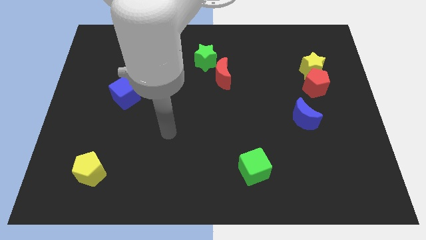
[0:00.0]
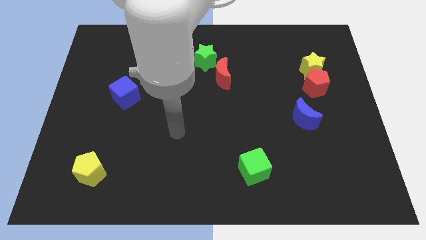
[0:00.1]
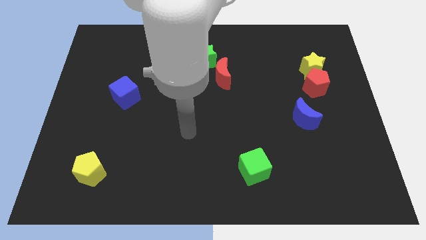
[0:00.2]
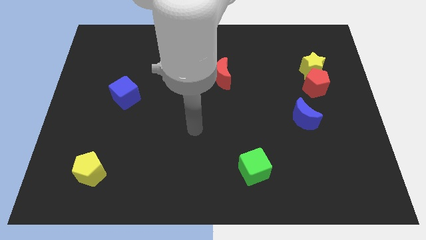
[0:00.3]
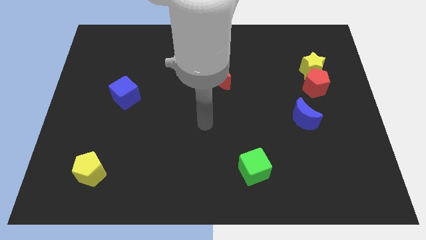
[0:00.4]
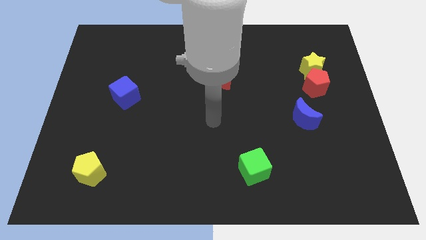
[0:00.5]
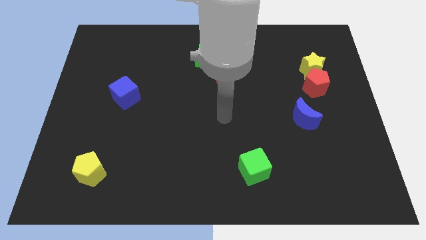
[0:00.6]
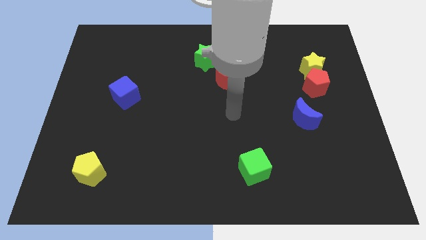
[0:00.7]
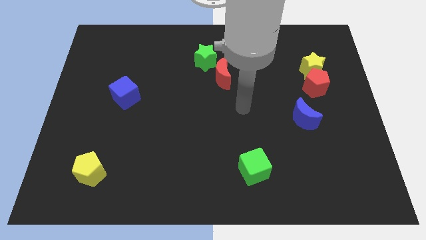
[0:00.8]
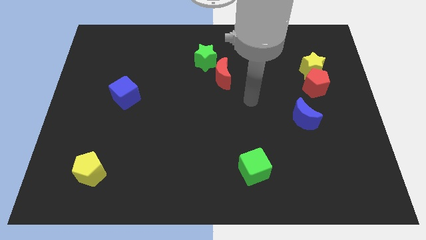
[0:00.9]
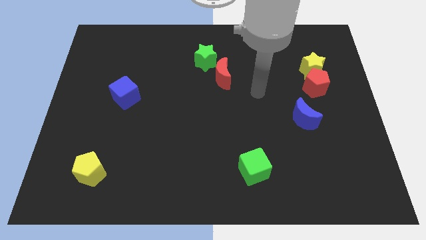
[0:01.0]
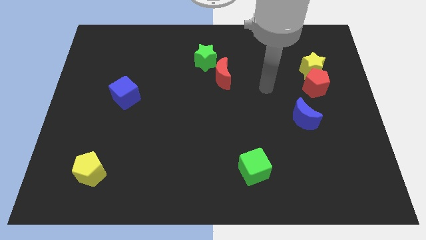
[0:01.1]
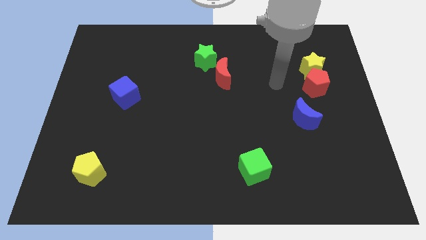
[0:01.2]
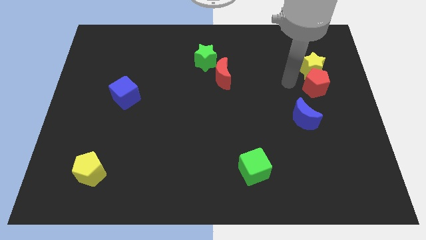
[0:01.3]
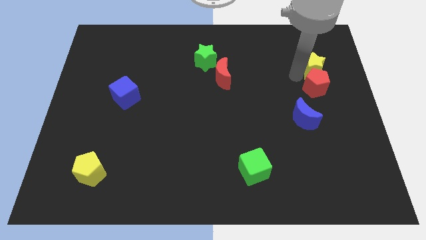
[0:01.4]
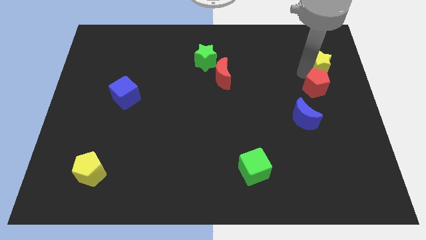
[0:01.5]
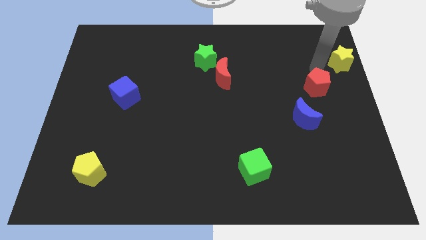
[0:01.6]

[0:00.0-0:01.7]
separate the red pentagon from the yellow star

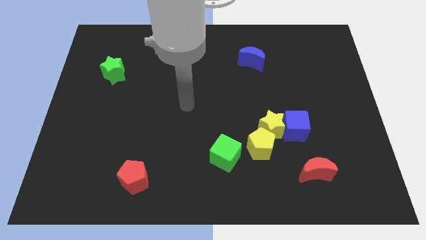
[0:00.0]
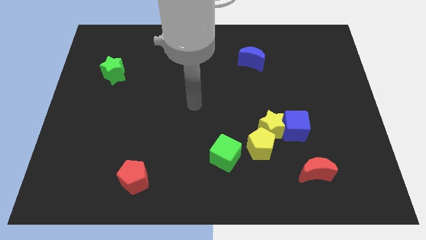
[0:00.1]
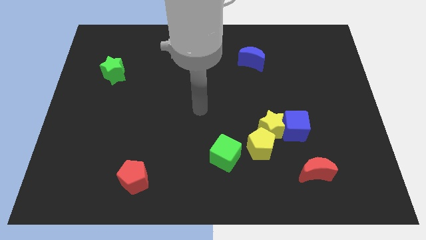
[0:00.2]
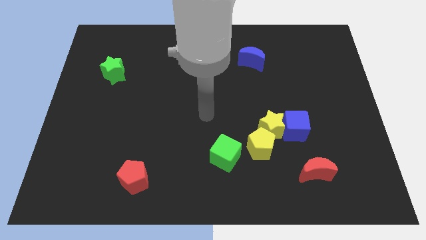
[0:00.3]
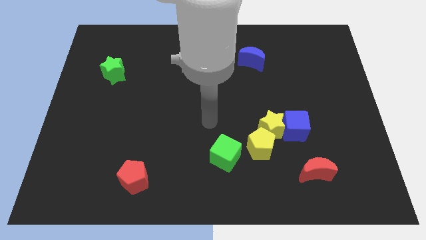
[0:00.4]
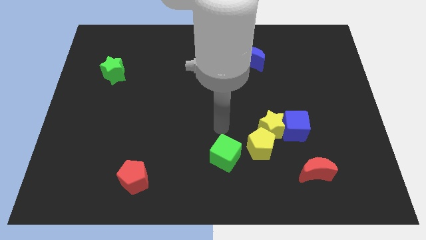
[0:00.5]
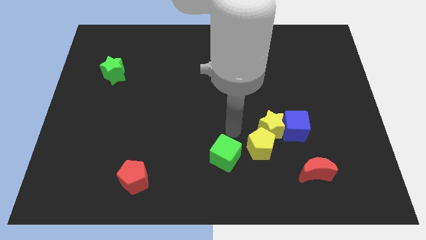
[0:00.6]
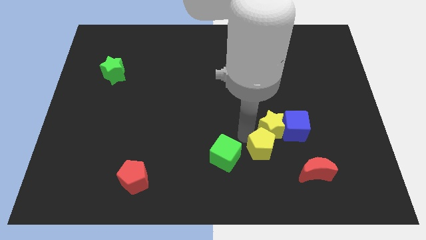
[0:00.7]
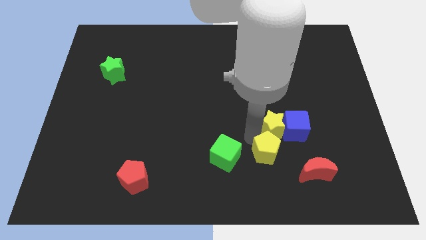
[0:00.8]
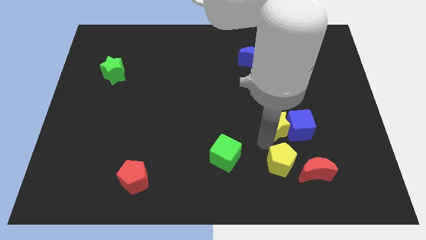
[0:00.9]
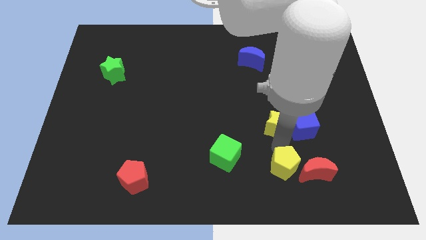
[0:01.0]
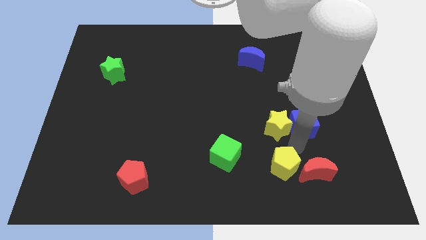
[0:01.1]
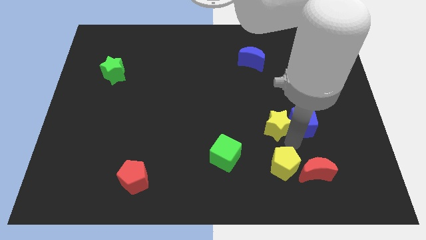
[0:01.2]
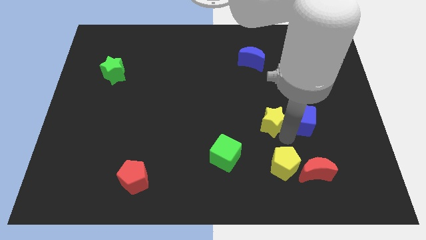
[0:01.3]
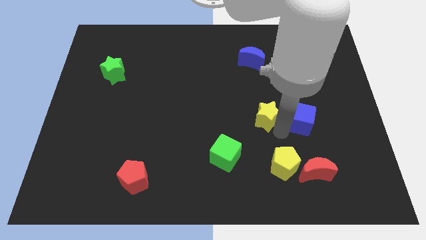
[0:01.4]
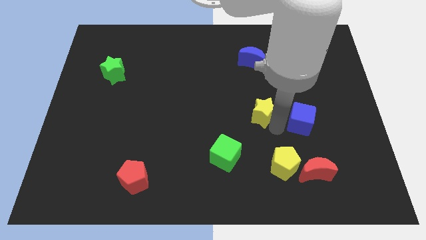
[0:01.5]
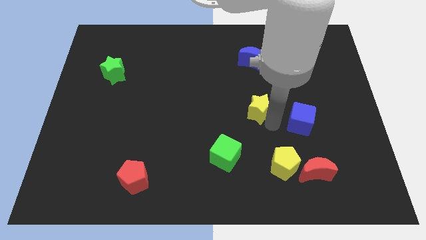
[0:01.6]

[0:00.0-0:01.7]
separate the yellow star from the blue cube and yellow pentagon

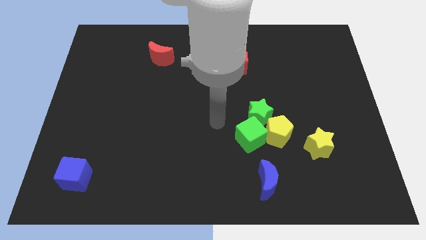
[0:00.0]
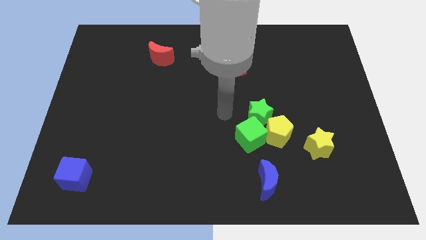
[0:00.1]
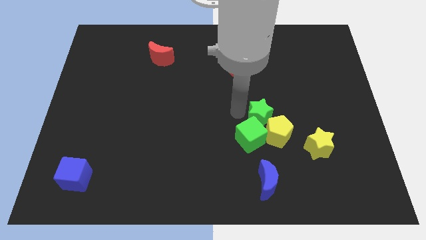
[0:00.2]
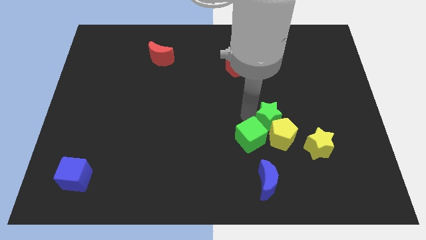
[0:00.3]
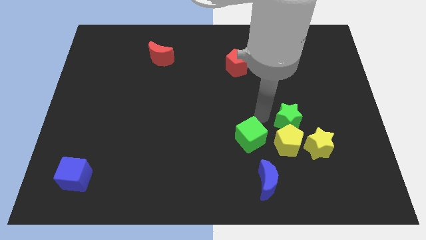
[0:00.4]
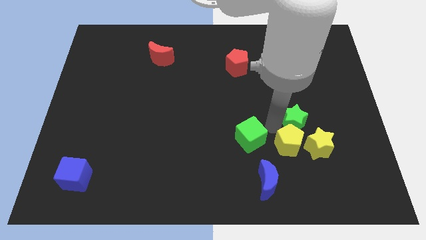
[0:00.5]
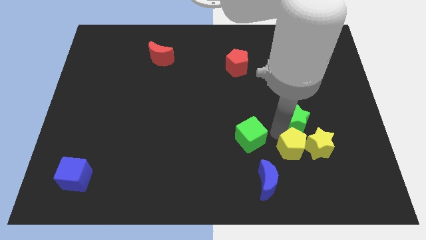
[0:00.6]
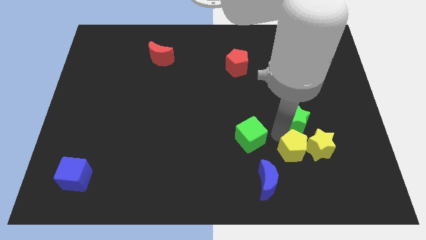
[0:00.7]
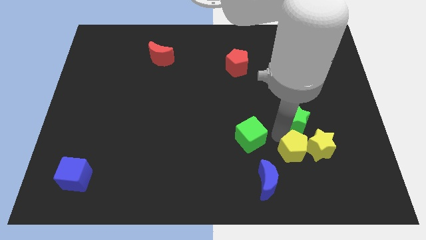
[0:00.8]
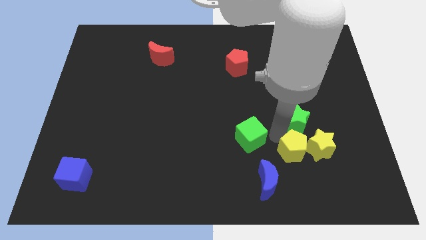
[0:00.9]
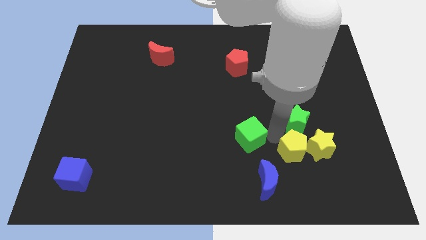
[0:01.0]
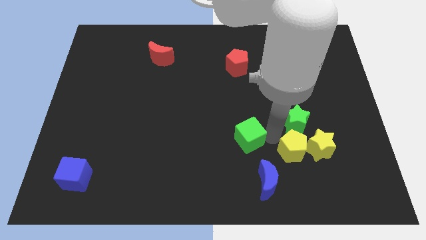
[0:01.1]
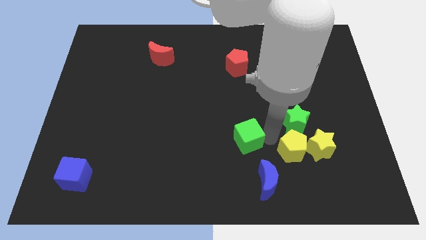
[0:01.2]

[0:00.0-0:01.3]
separate the green cube from the green star and yellow pentagon

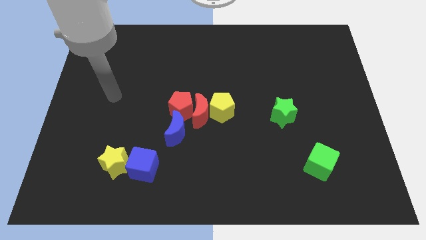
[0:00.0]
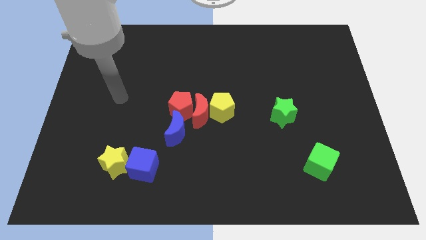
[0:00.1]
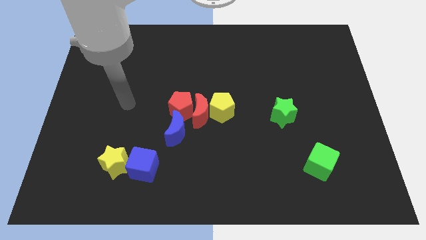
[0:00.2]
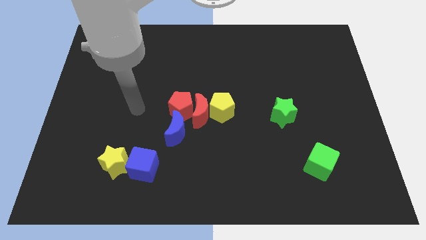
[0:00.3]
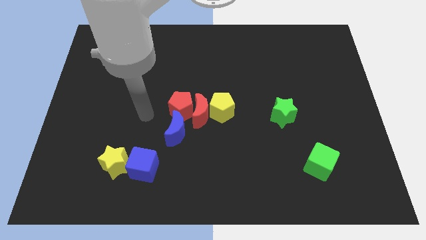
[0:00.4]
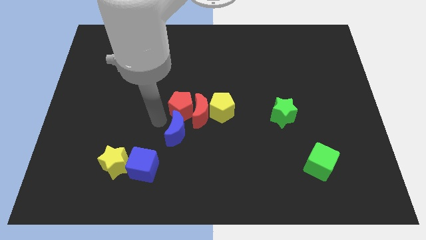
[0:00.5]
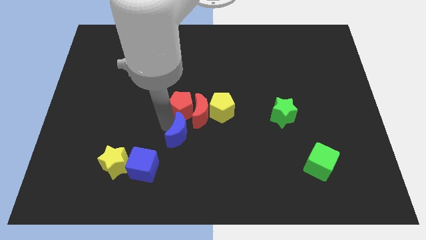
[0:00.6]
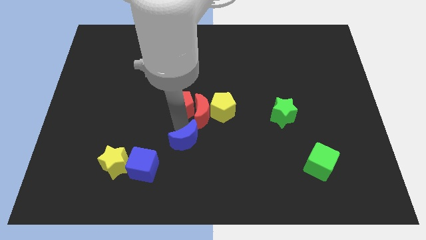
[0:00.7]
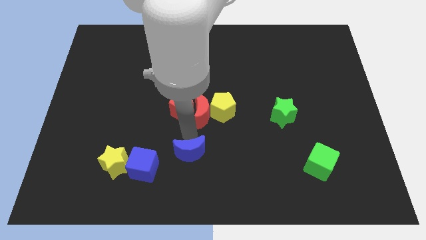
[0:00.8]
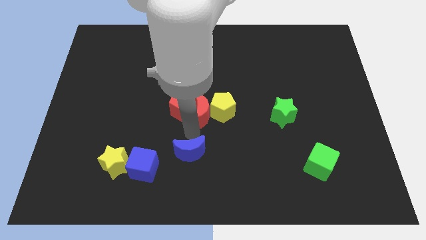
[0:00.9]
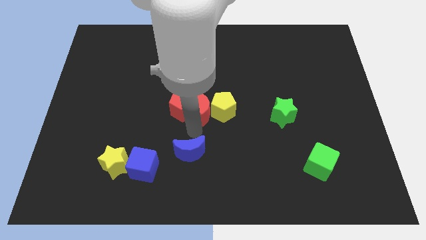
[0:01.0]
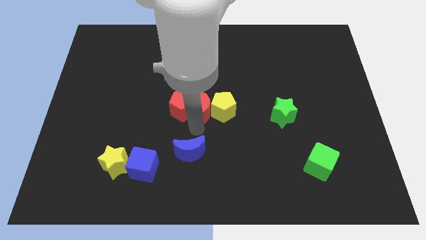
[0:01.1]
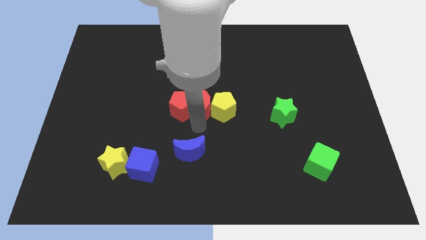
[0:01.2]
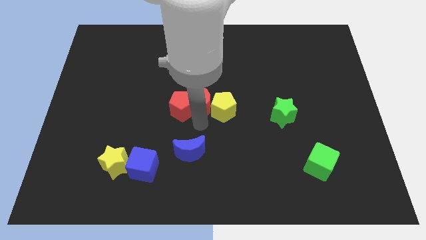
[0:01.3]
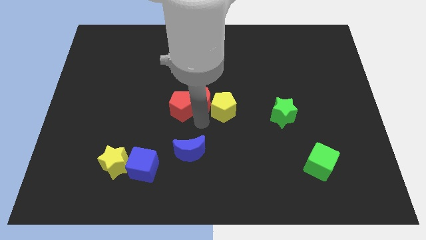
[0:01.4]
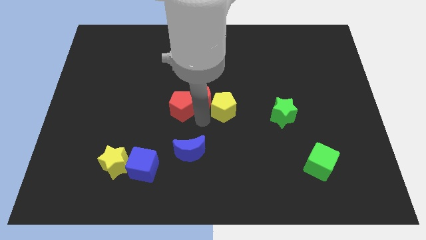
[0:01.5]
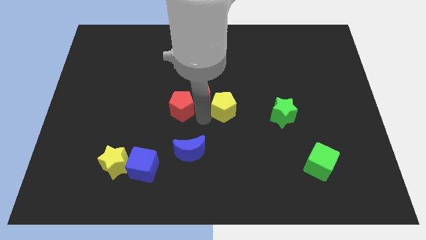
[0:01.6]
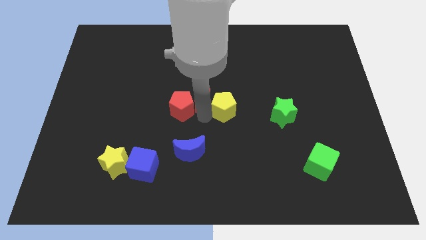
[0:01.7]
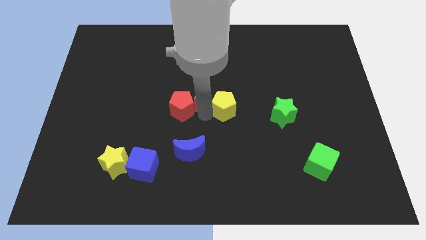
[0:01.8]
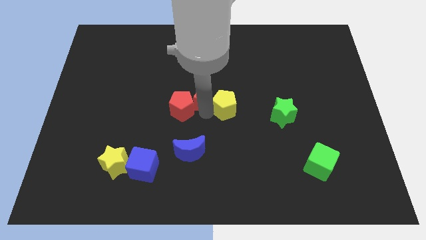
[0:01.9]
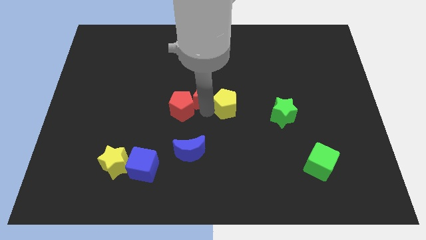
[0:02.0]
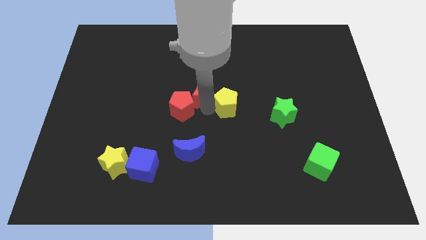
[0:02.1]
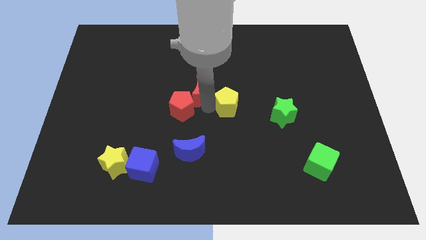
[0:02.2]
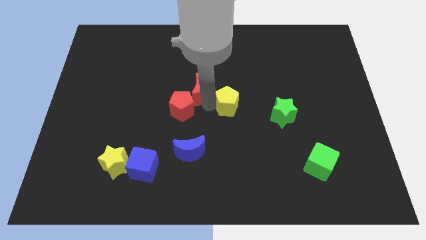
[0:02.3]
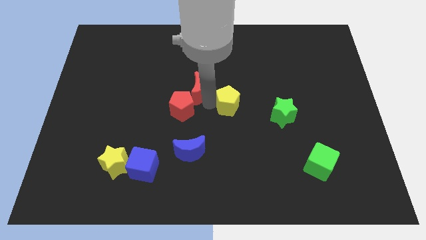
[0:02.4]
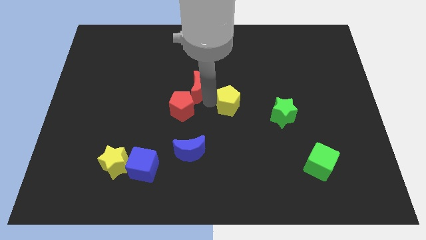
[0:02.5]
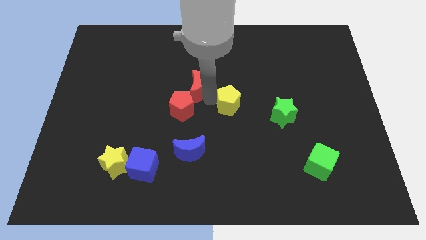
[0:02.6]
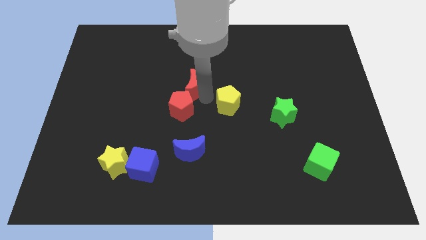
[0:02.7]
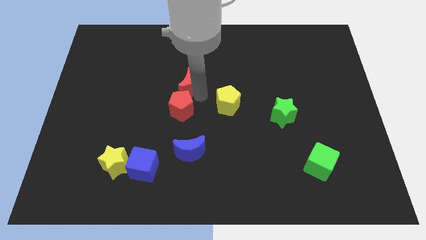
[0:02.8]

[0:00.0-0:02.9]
pull the red moon apart from the yellow pentagon, red pentagon, and blue moon

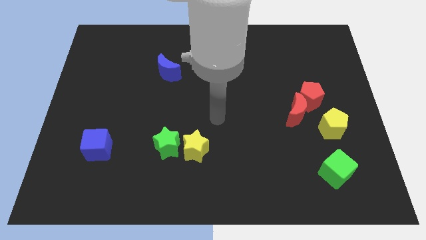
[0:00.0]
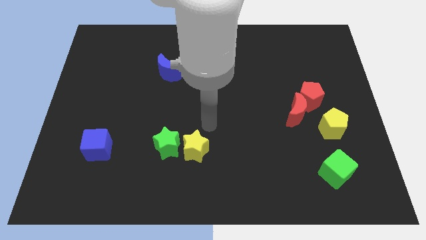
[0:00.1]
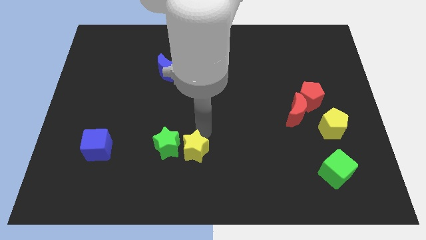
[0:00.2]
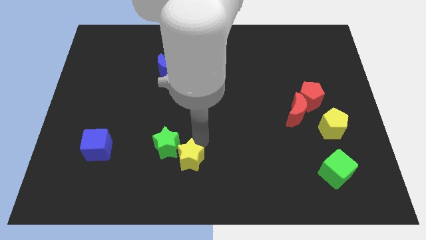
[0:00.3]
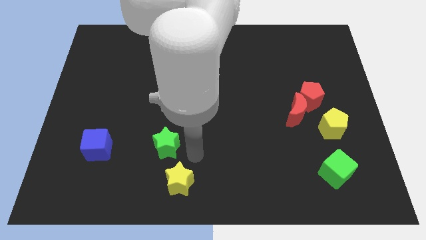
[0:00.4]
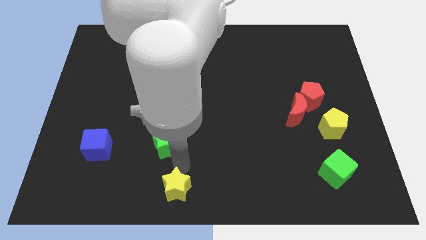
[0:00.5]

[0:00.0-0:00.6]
separate the green star from the yellow star

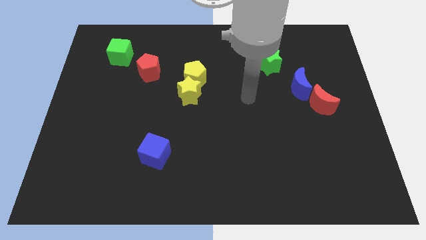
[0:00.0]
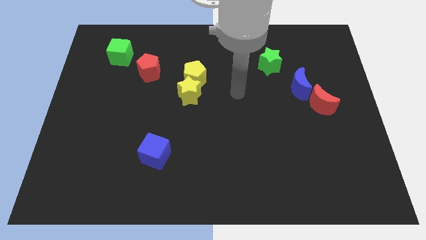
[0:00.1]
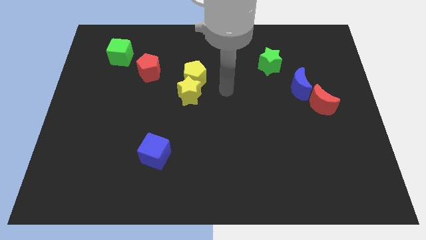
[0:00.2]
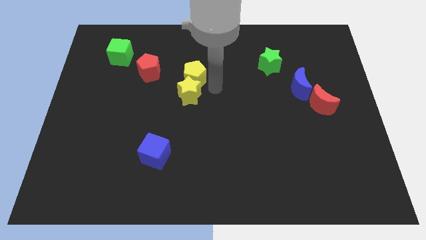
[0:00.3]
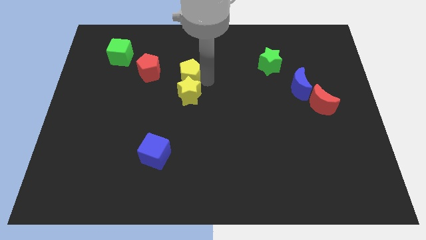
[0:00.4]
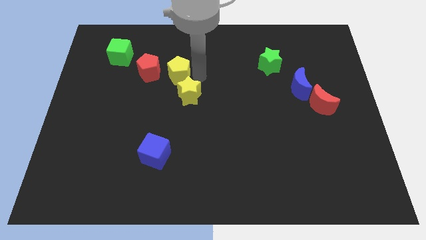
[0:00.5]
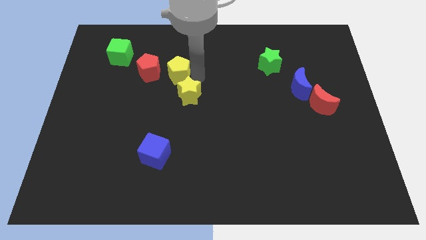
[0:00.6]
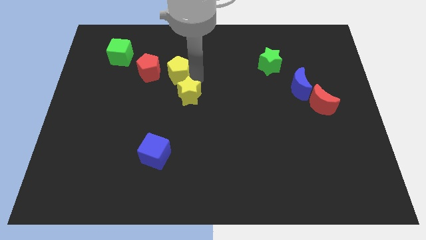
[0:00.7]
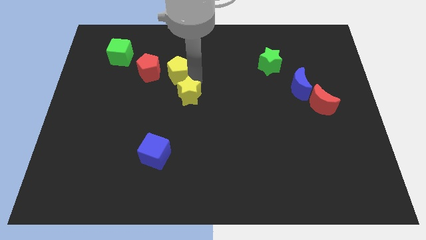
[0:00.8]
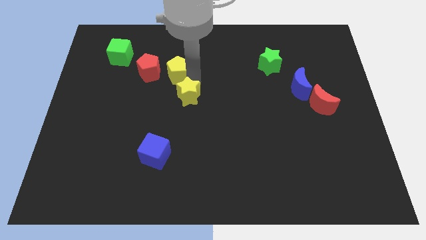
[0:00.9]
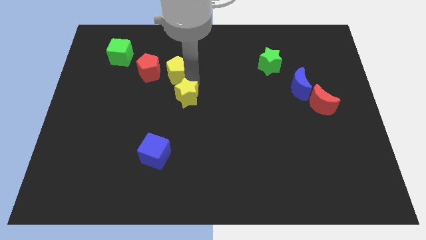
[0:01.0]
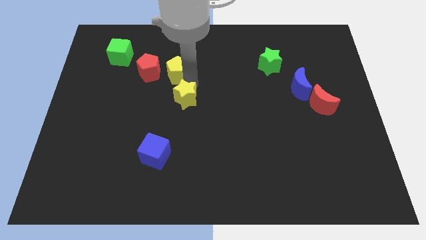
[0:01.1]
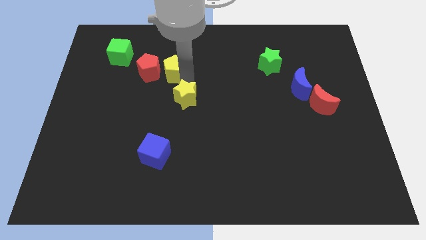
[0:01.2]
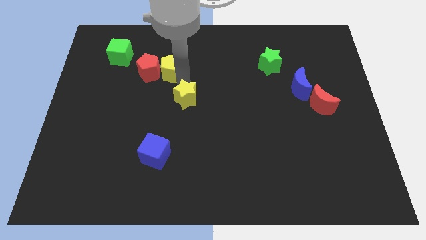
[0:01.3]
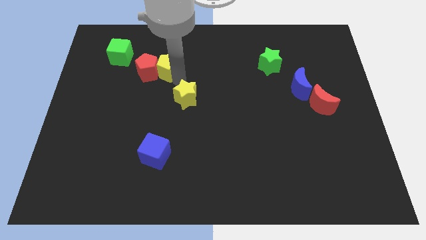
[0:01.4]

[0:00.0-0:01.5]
pull the yellow star apart from the yellow pentagon
